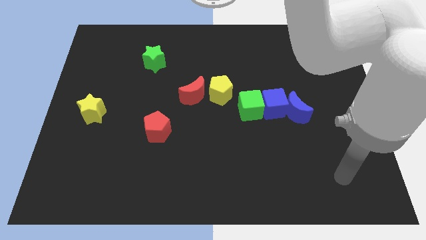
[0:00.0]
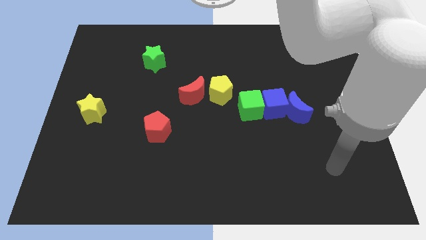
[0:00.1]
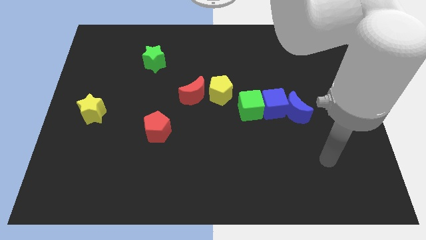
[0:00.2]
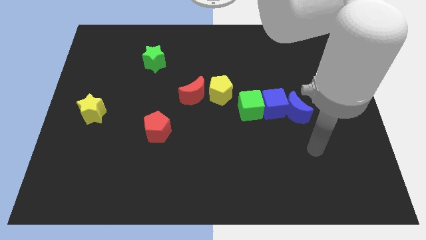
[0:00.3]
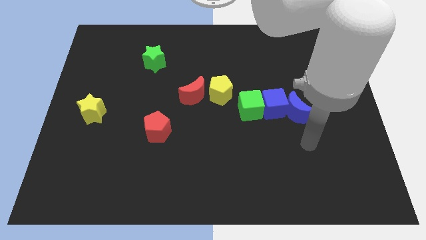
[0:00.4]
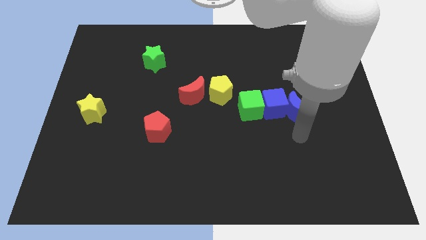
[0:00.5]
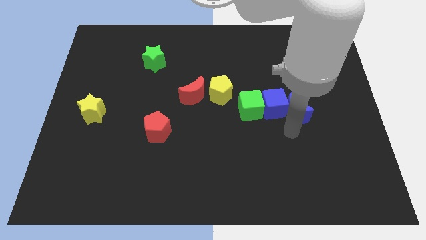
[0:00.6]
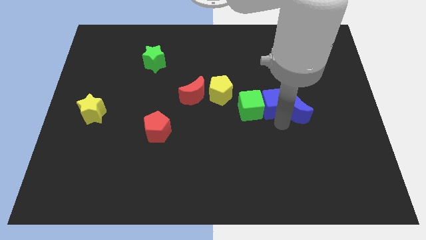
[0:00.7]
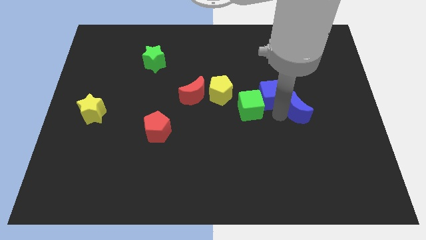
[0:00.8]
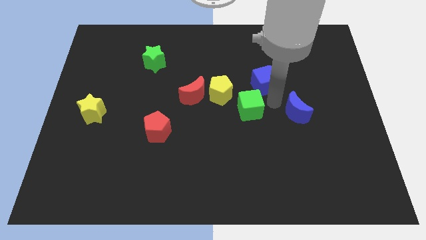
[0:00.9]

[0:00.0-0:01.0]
pull the blue moon apart from the blue cube

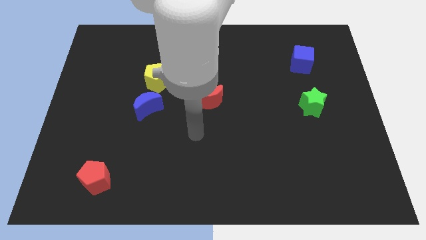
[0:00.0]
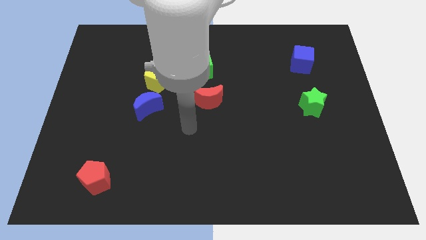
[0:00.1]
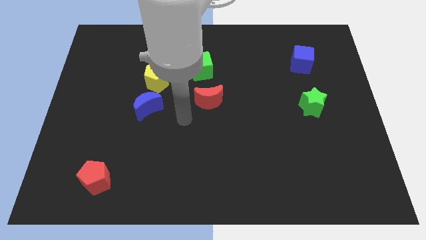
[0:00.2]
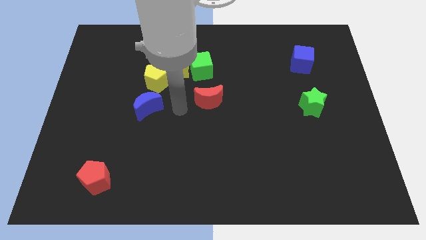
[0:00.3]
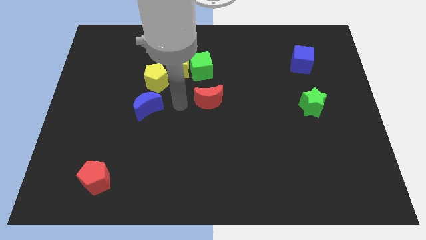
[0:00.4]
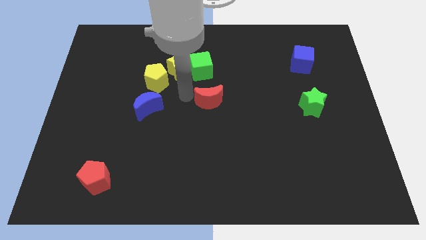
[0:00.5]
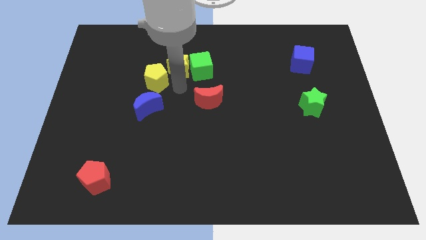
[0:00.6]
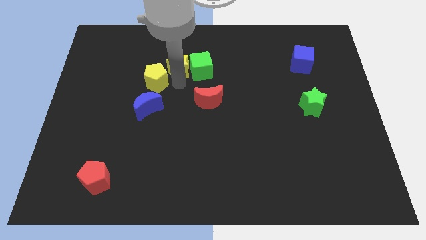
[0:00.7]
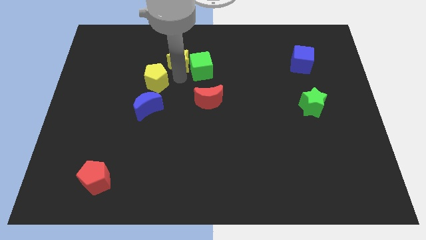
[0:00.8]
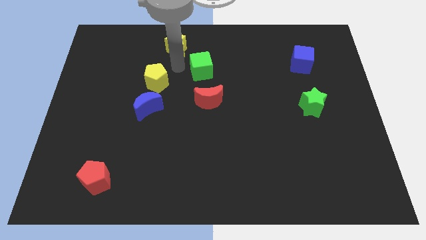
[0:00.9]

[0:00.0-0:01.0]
move the green cube away from the yellow star

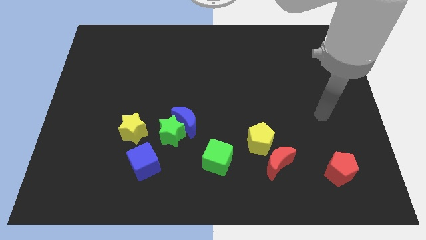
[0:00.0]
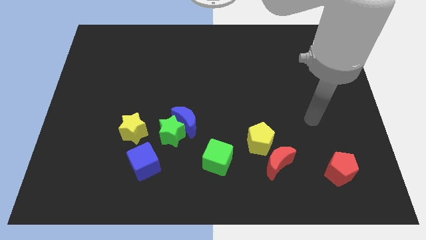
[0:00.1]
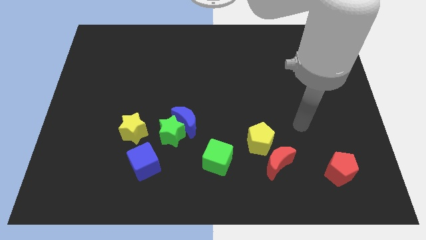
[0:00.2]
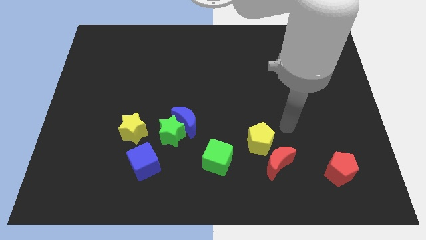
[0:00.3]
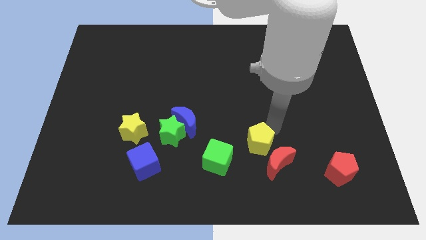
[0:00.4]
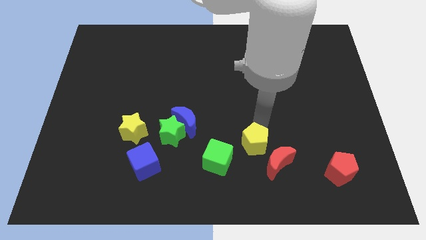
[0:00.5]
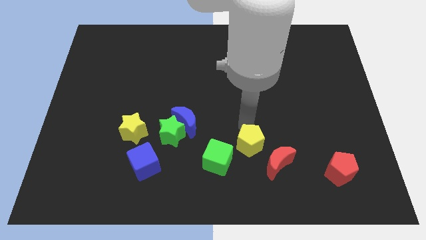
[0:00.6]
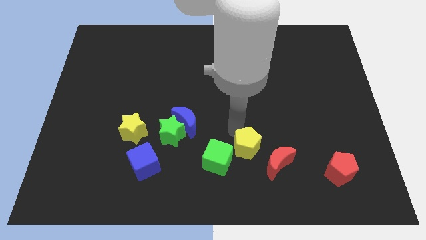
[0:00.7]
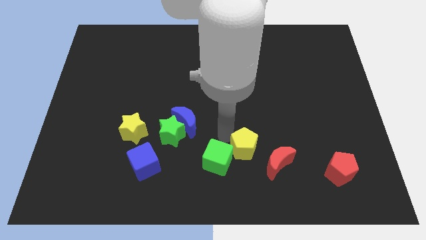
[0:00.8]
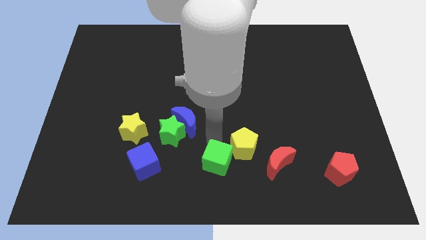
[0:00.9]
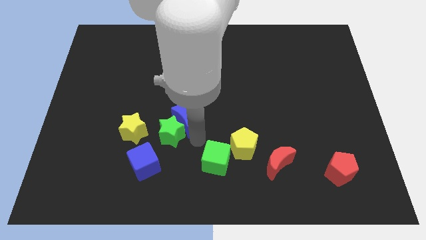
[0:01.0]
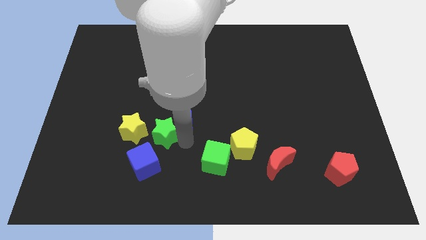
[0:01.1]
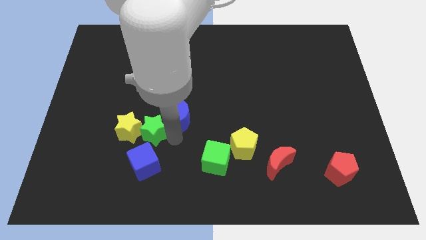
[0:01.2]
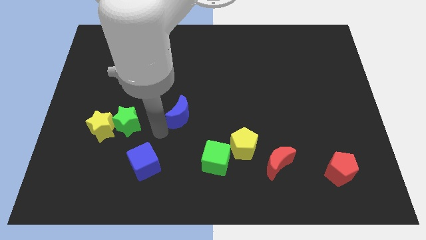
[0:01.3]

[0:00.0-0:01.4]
pull the blue moon apart from the green star

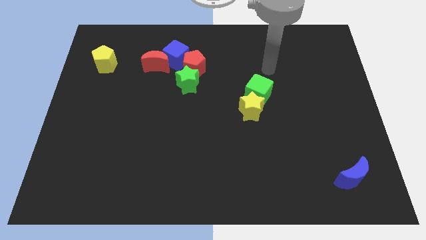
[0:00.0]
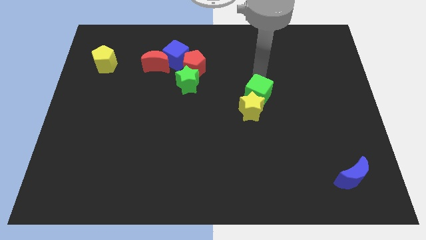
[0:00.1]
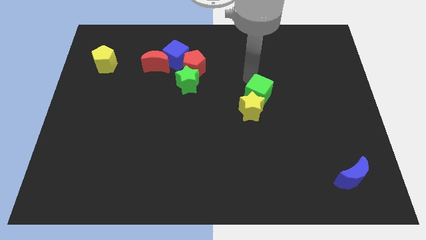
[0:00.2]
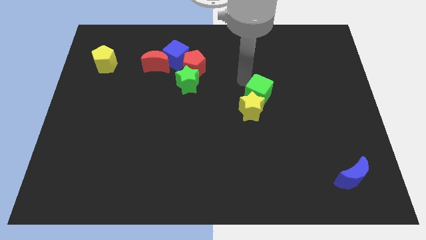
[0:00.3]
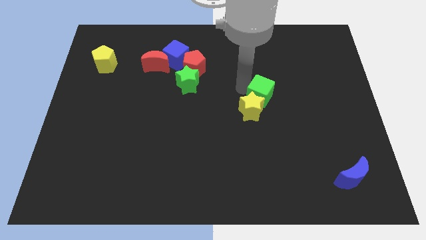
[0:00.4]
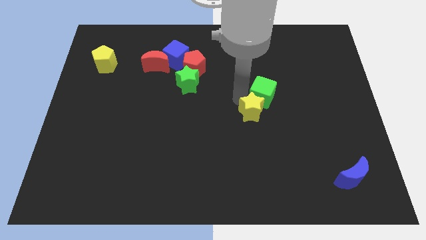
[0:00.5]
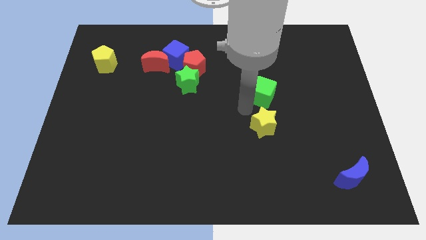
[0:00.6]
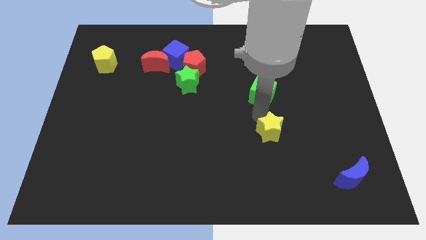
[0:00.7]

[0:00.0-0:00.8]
pull the green cube apart from the yellow star

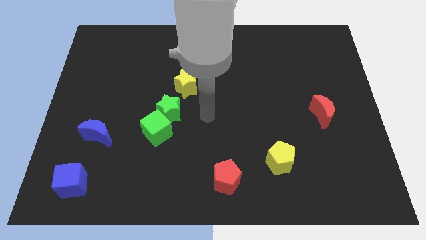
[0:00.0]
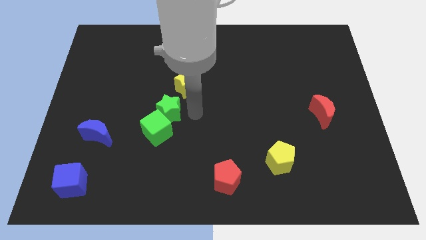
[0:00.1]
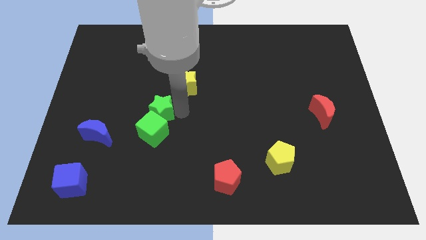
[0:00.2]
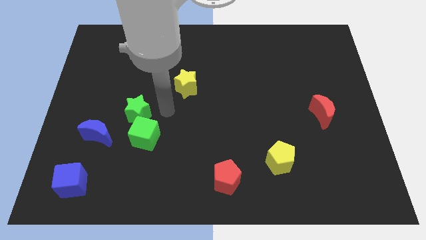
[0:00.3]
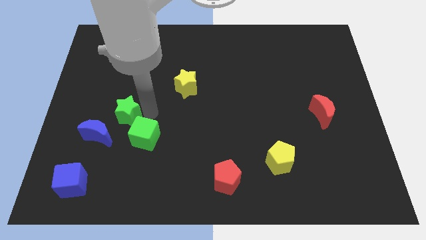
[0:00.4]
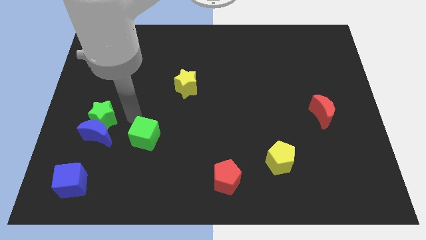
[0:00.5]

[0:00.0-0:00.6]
pull the green cube apart from the green star

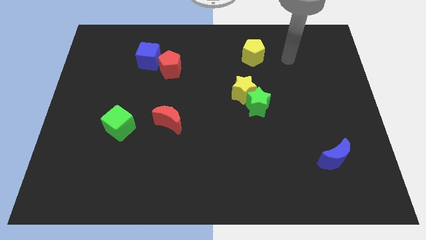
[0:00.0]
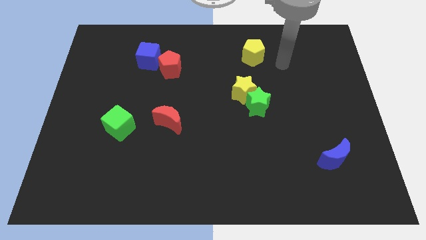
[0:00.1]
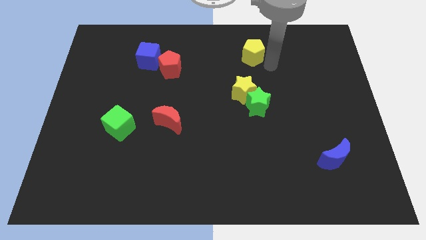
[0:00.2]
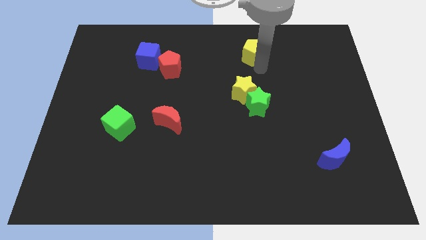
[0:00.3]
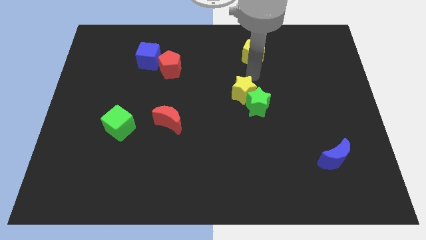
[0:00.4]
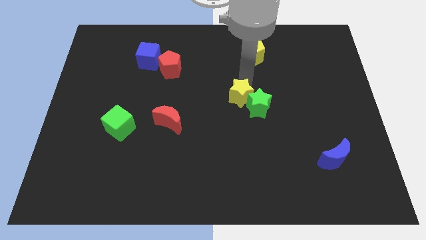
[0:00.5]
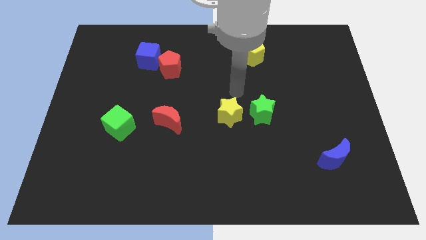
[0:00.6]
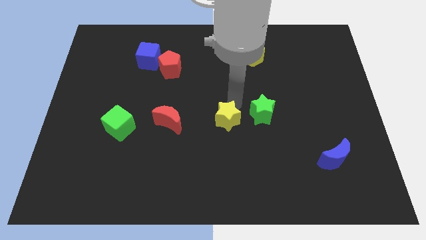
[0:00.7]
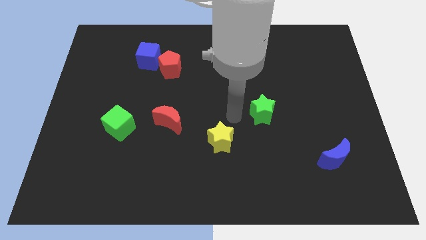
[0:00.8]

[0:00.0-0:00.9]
pull the green star apart from the yellow star

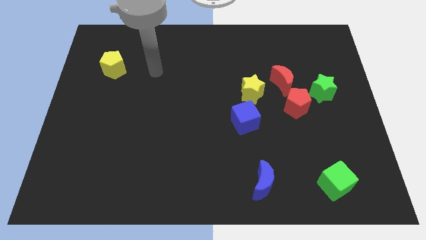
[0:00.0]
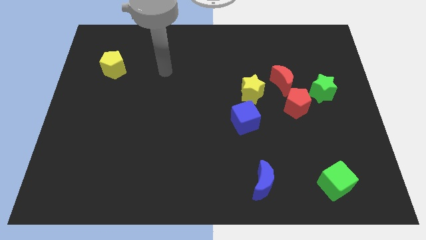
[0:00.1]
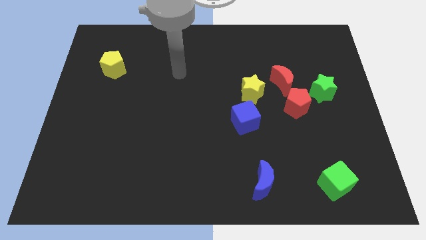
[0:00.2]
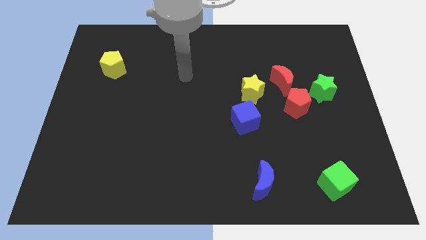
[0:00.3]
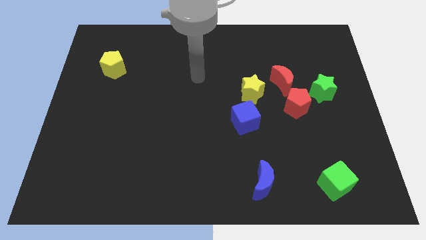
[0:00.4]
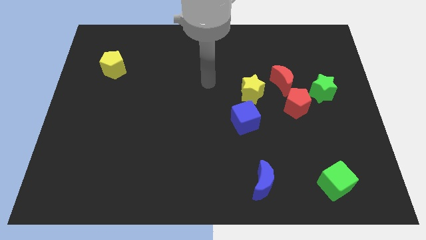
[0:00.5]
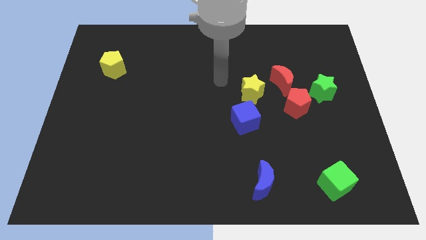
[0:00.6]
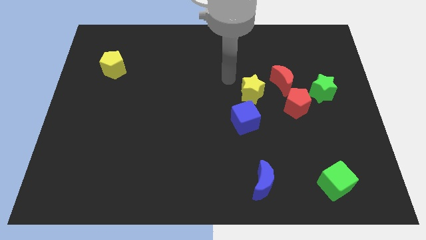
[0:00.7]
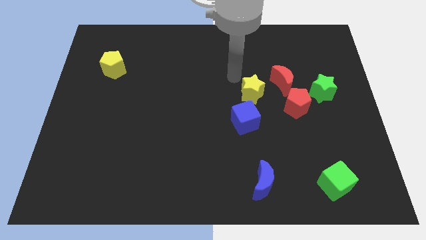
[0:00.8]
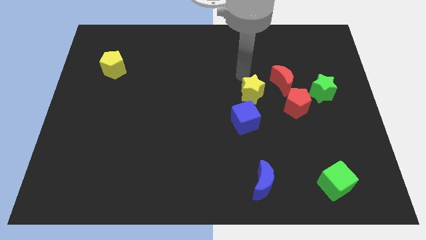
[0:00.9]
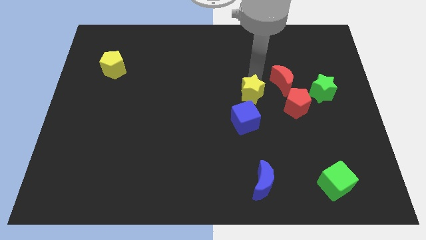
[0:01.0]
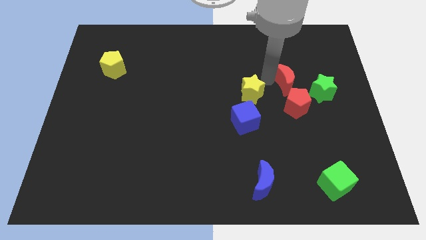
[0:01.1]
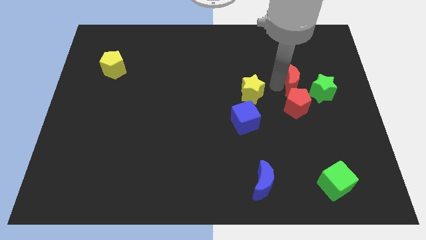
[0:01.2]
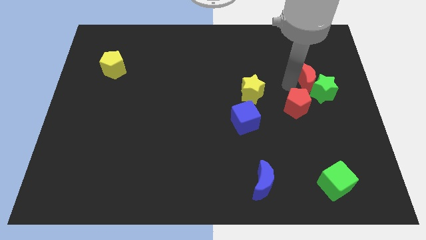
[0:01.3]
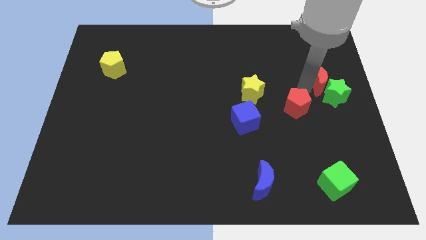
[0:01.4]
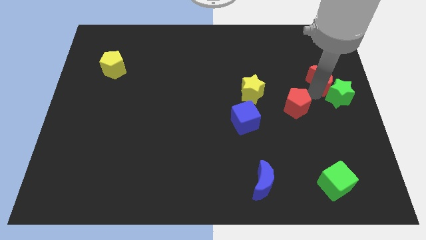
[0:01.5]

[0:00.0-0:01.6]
separate the red pentagon from the red moon and green star

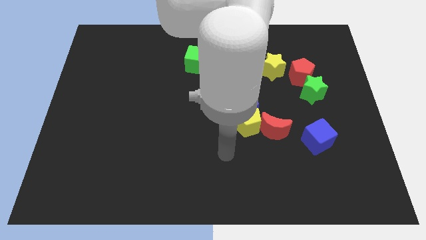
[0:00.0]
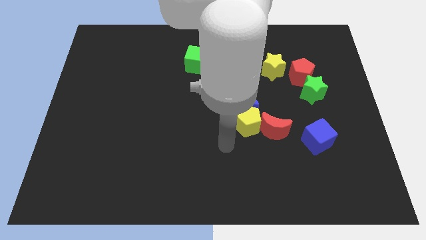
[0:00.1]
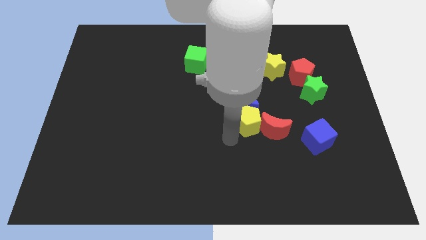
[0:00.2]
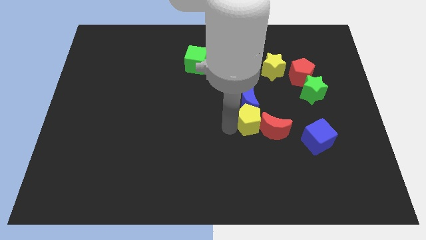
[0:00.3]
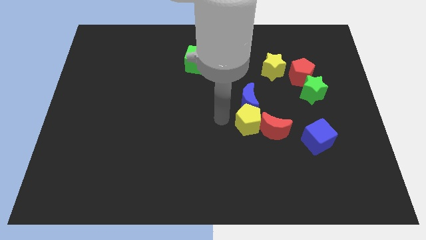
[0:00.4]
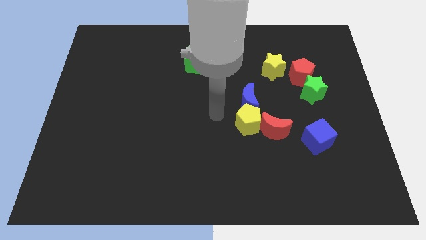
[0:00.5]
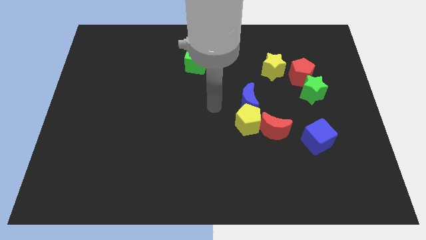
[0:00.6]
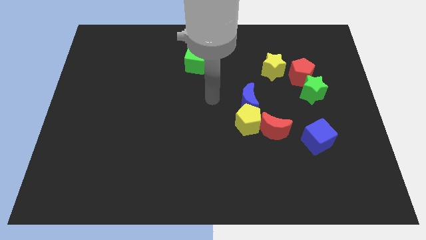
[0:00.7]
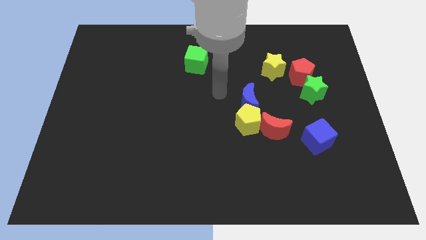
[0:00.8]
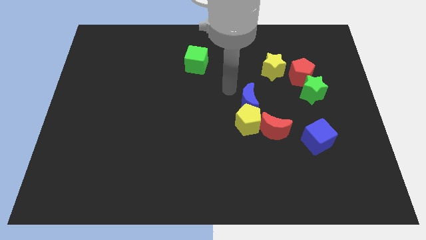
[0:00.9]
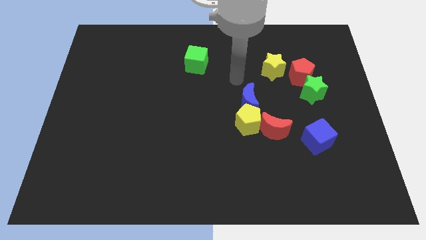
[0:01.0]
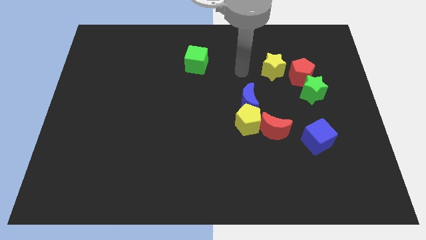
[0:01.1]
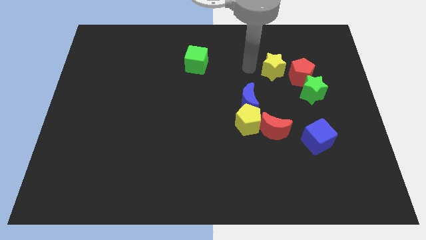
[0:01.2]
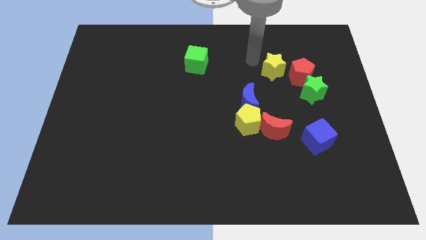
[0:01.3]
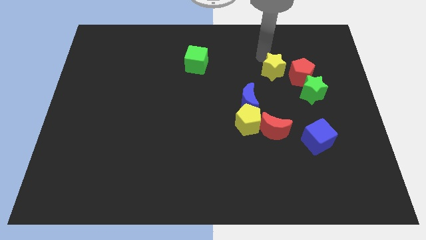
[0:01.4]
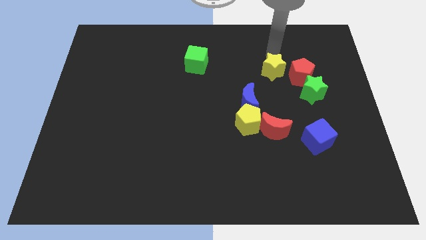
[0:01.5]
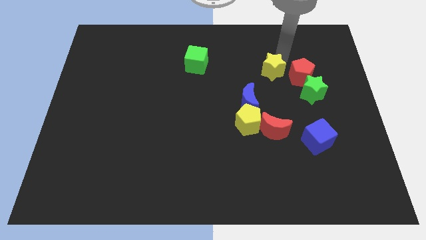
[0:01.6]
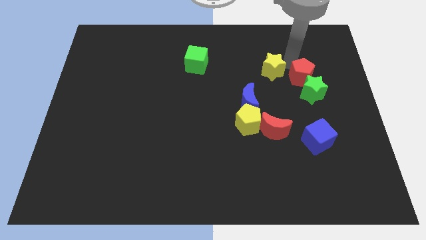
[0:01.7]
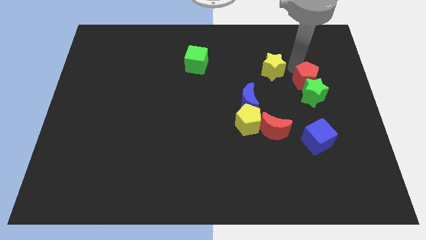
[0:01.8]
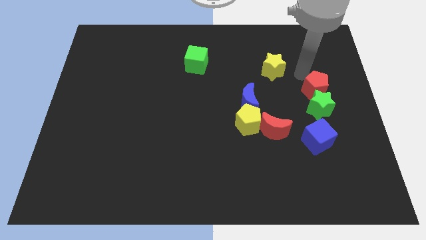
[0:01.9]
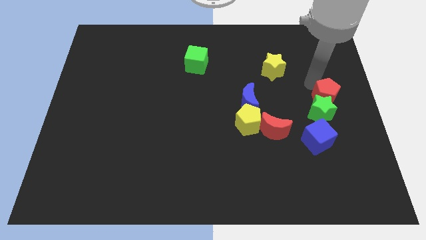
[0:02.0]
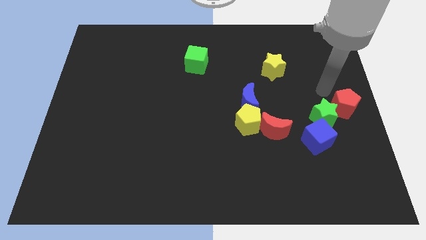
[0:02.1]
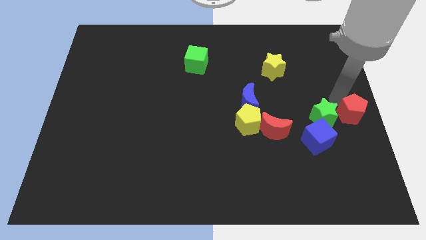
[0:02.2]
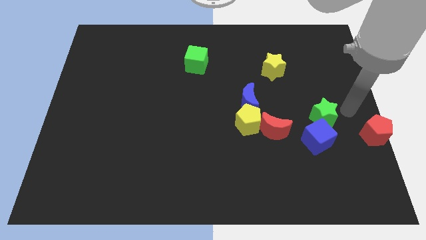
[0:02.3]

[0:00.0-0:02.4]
separate the green star from the red pentagon
